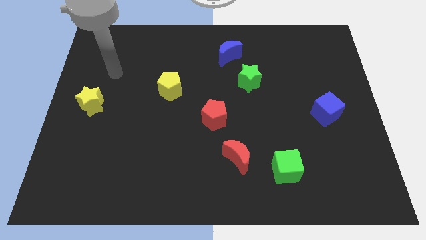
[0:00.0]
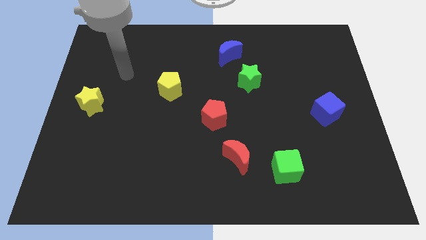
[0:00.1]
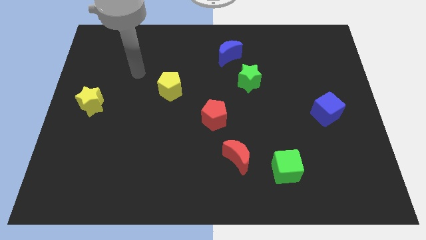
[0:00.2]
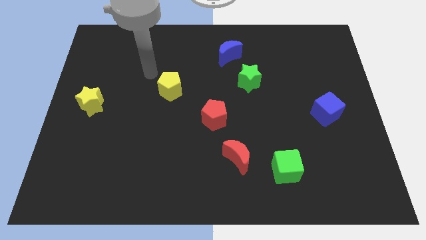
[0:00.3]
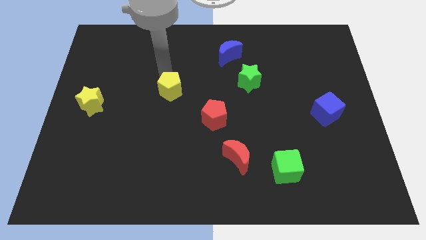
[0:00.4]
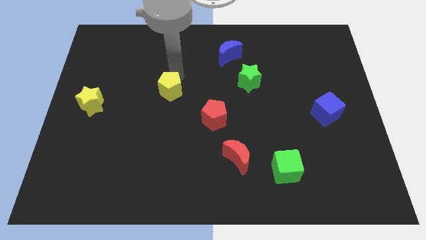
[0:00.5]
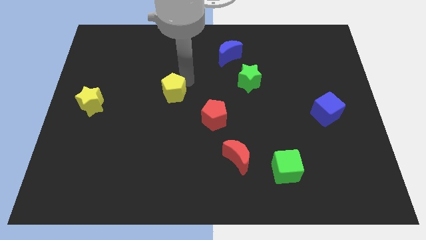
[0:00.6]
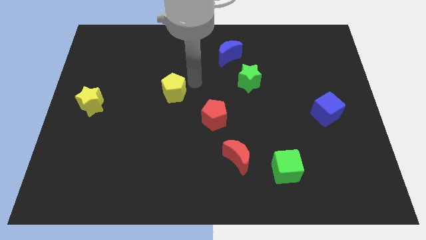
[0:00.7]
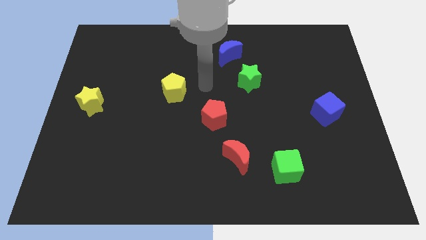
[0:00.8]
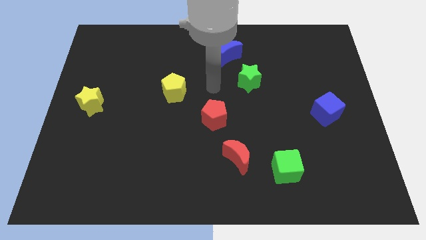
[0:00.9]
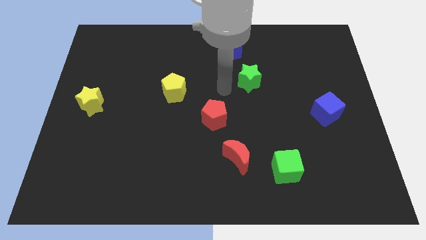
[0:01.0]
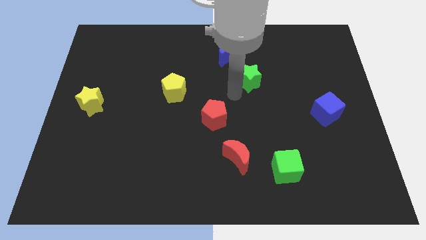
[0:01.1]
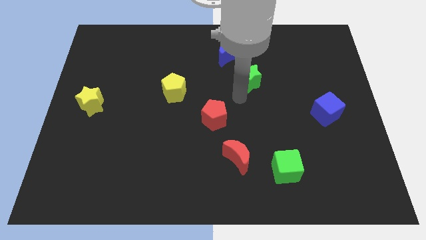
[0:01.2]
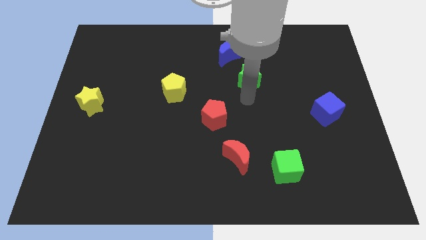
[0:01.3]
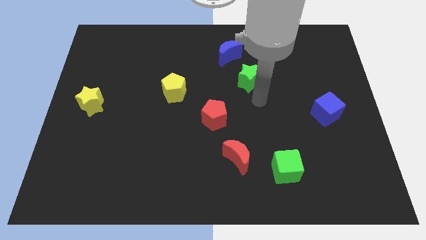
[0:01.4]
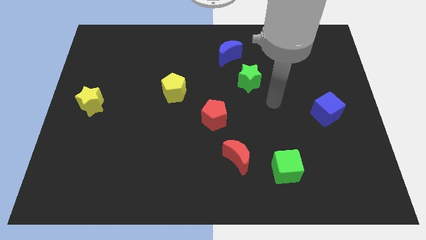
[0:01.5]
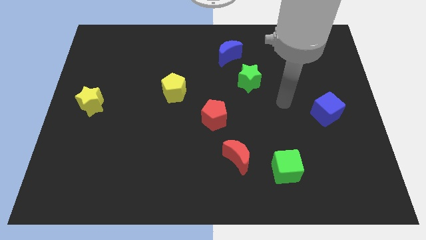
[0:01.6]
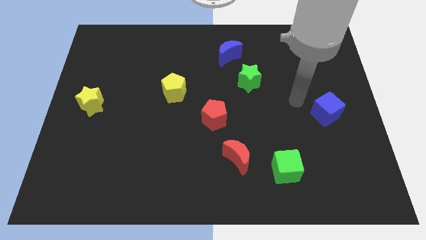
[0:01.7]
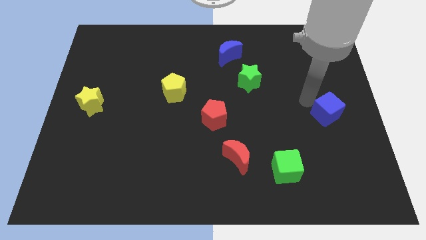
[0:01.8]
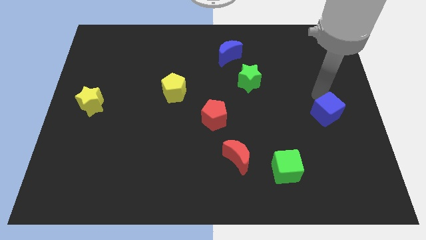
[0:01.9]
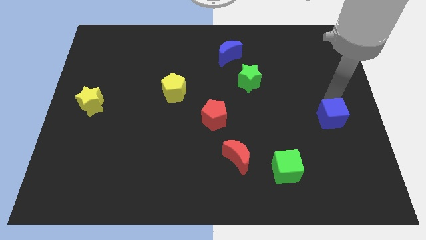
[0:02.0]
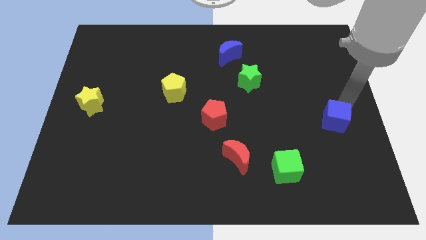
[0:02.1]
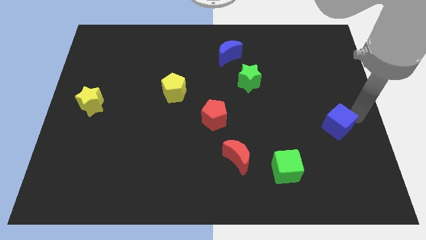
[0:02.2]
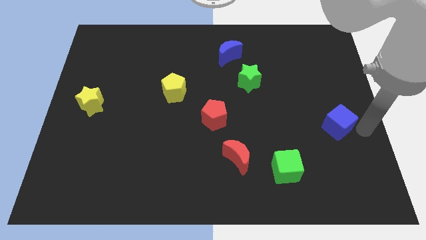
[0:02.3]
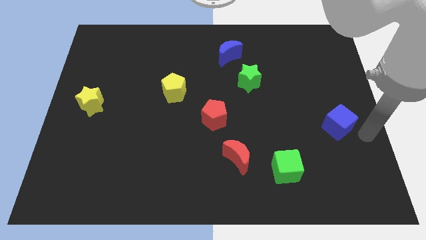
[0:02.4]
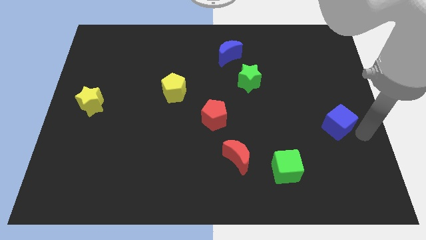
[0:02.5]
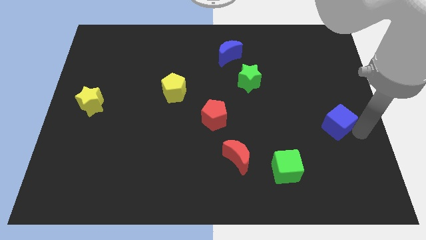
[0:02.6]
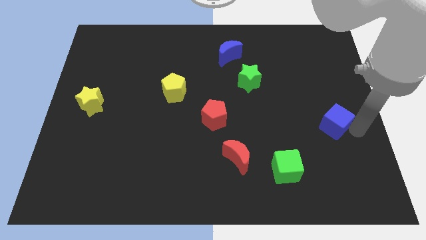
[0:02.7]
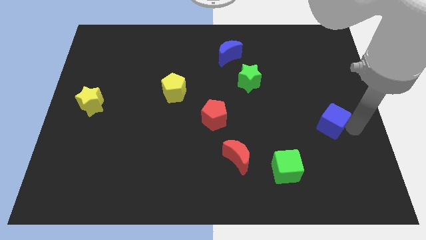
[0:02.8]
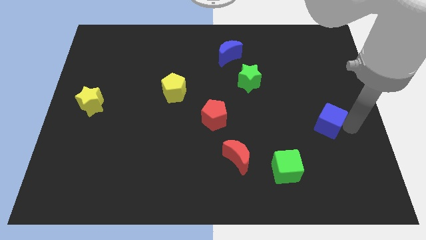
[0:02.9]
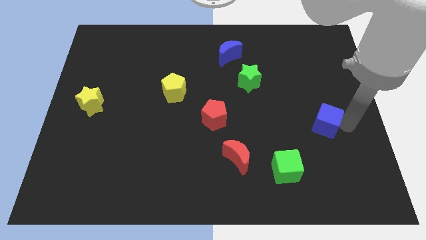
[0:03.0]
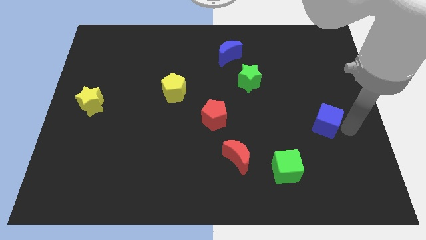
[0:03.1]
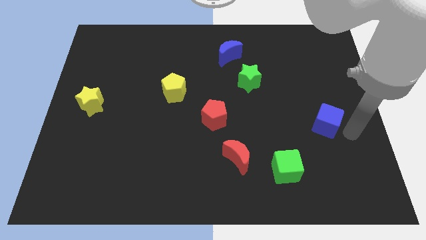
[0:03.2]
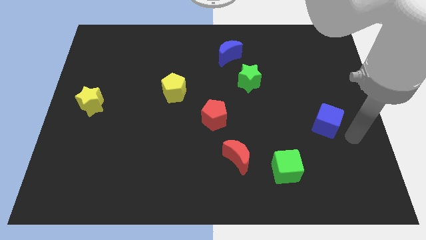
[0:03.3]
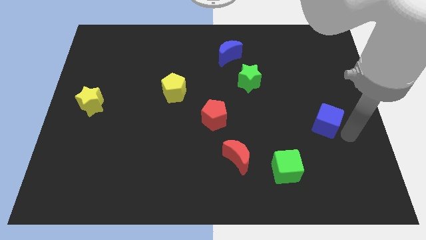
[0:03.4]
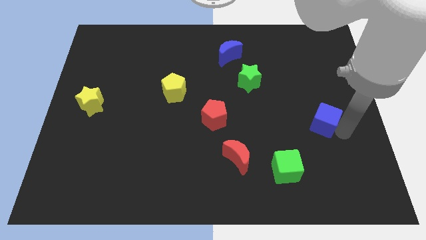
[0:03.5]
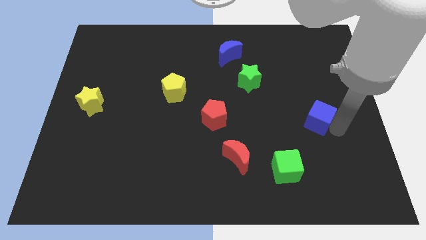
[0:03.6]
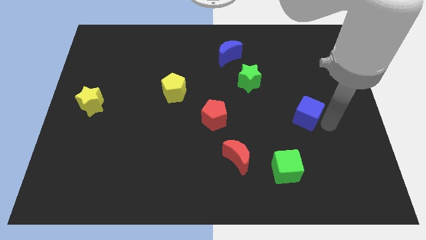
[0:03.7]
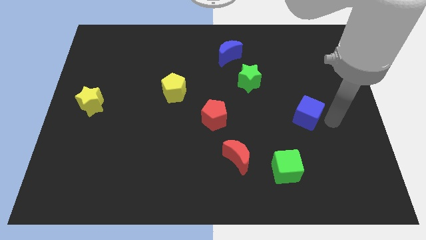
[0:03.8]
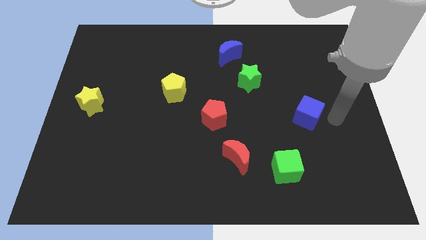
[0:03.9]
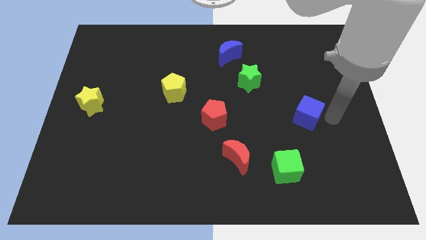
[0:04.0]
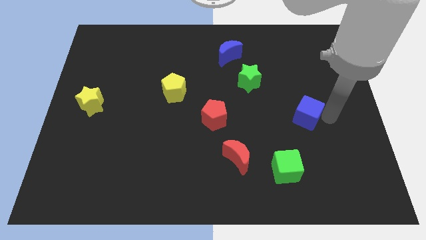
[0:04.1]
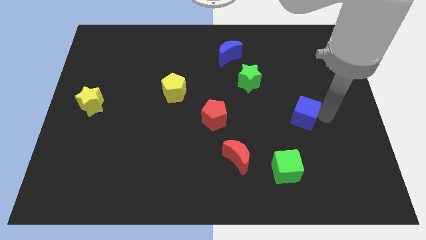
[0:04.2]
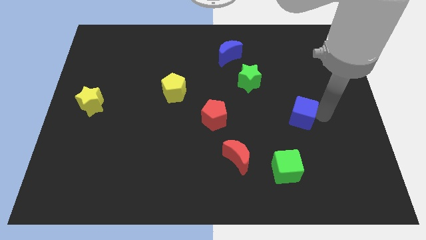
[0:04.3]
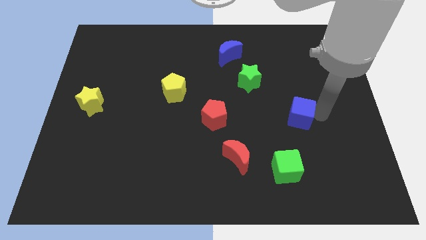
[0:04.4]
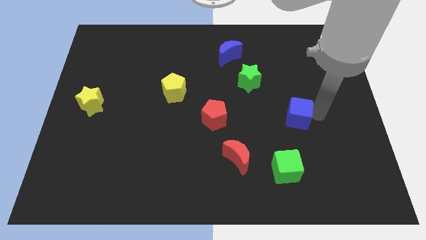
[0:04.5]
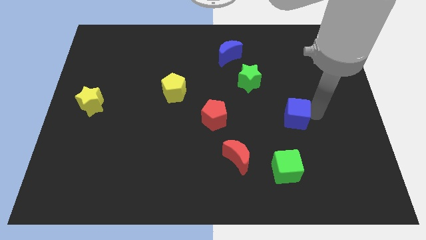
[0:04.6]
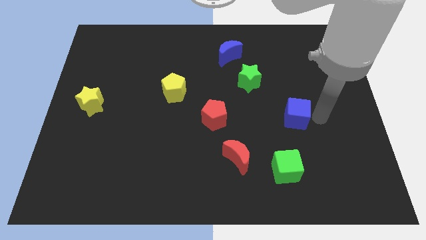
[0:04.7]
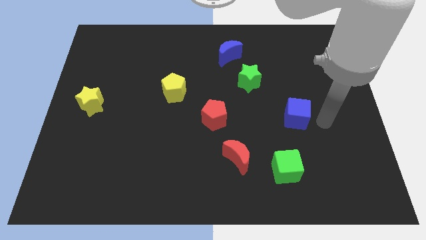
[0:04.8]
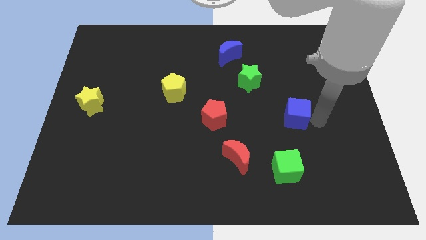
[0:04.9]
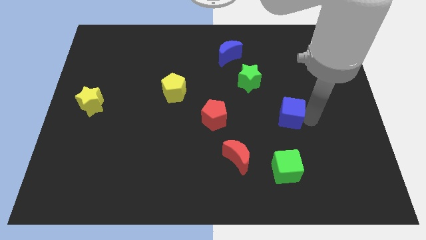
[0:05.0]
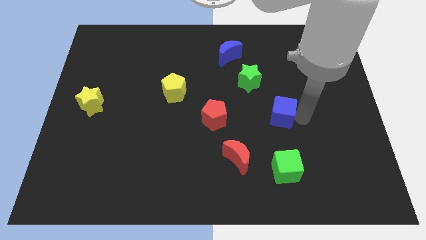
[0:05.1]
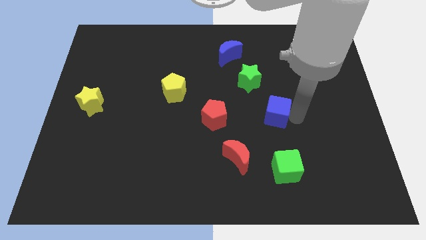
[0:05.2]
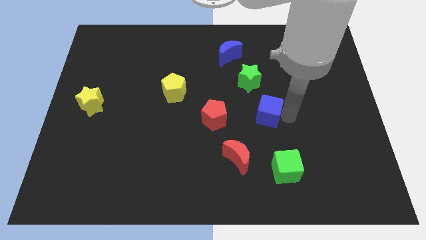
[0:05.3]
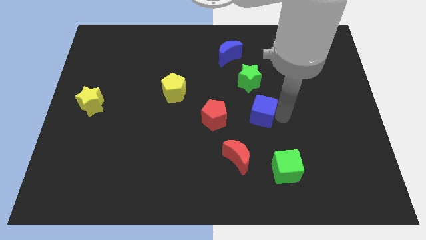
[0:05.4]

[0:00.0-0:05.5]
move the blue cube to the middle

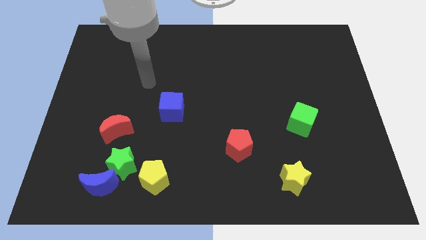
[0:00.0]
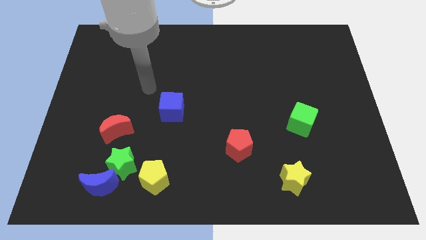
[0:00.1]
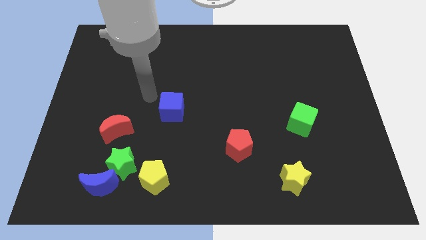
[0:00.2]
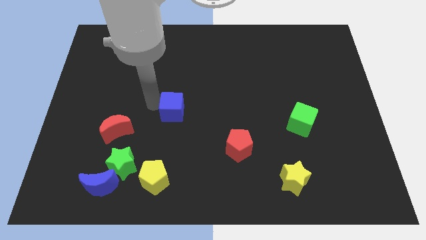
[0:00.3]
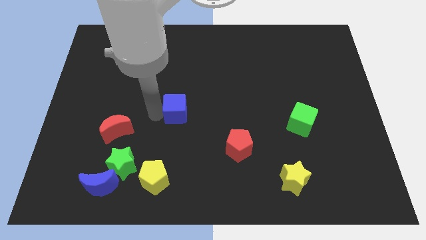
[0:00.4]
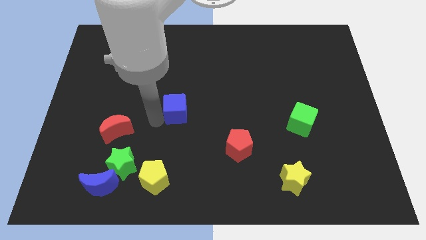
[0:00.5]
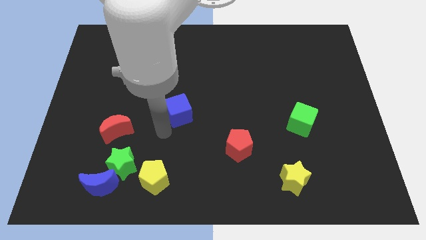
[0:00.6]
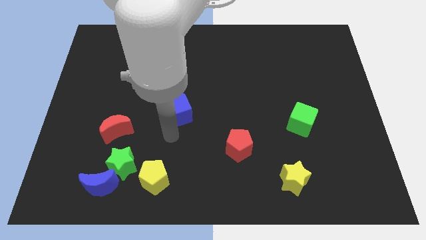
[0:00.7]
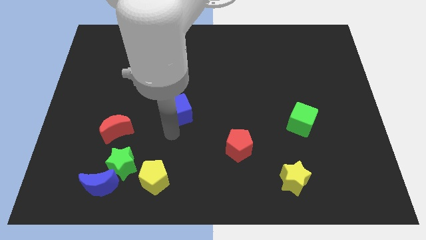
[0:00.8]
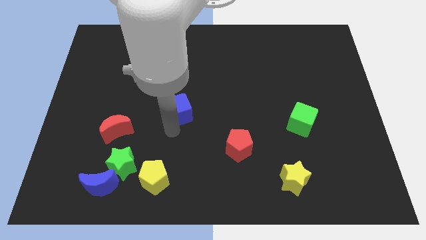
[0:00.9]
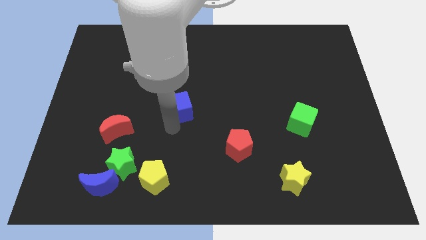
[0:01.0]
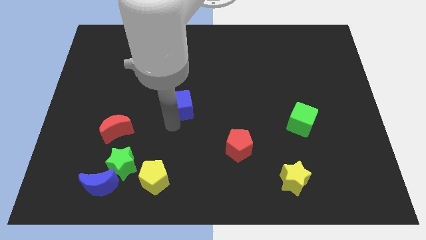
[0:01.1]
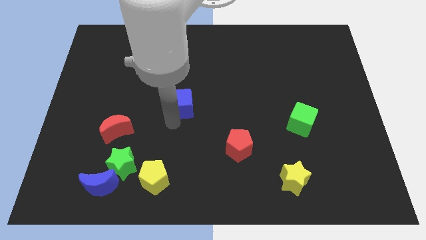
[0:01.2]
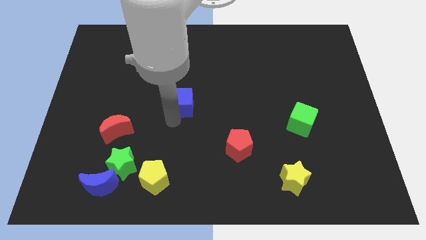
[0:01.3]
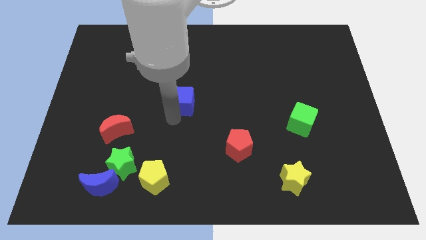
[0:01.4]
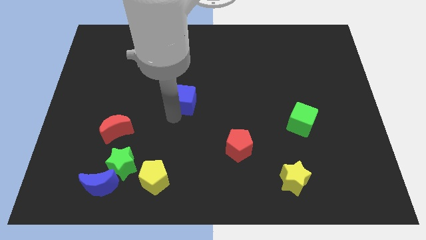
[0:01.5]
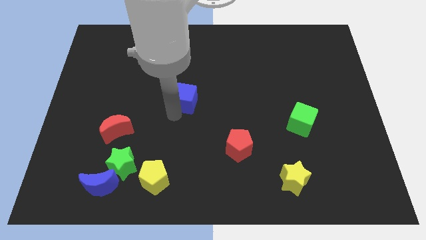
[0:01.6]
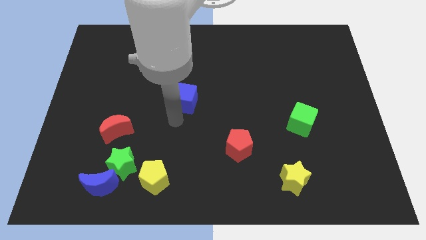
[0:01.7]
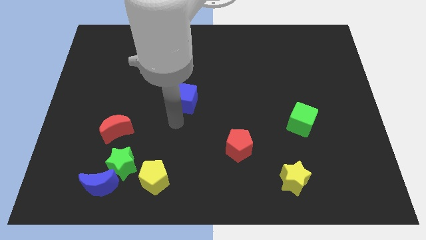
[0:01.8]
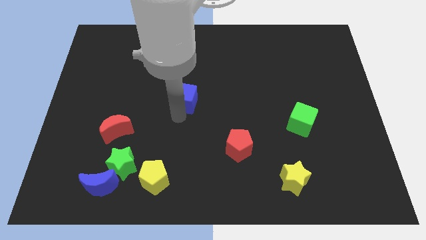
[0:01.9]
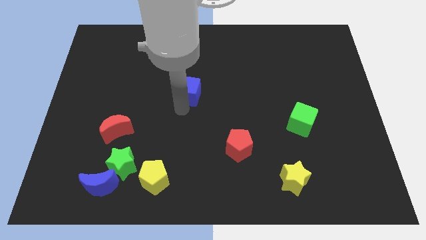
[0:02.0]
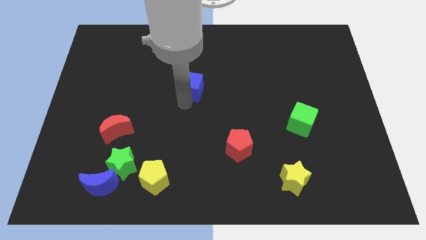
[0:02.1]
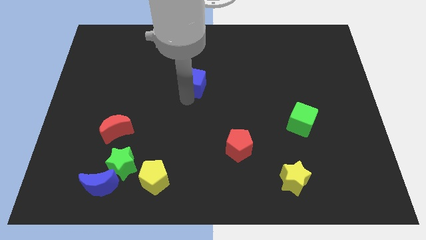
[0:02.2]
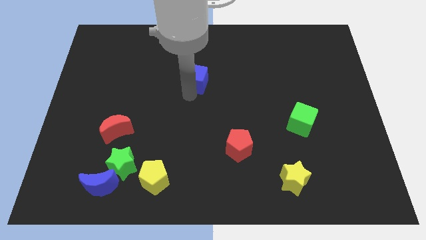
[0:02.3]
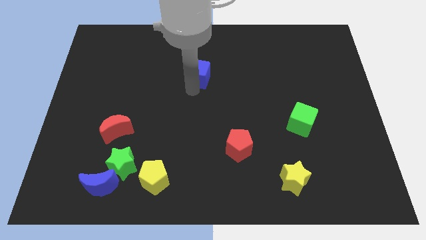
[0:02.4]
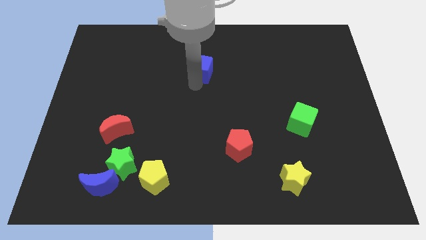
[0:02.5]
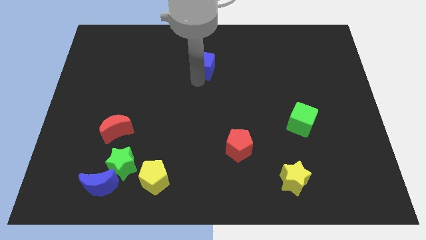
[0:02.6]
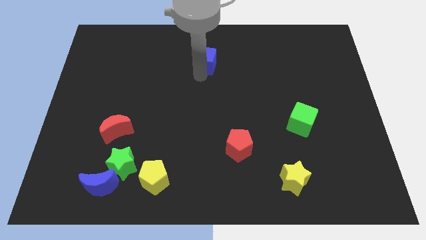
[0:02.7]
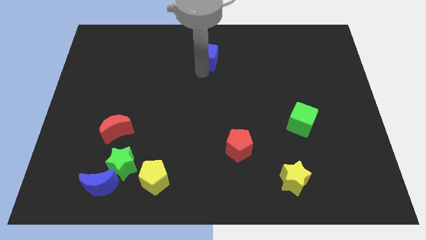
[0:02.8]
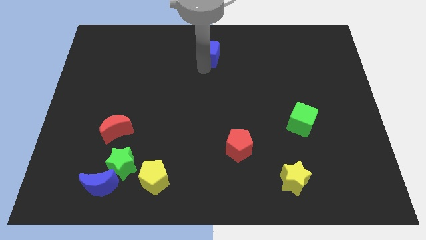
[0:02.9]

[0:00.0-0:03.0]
slide the blue cube to the top side
